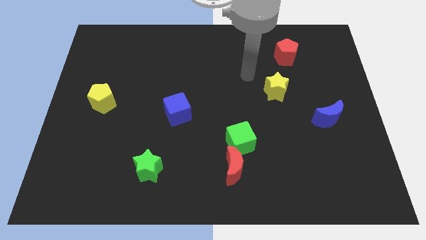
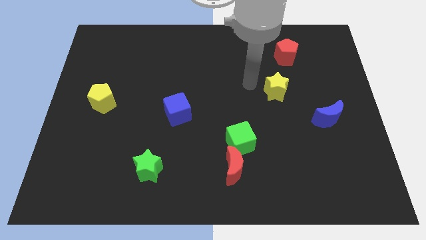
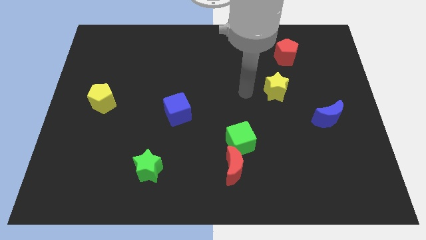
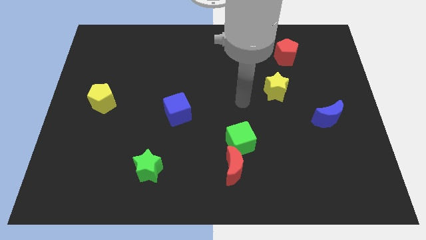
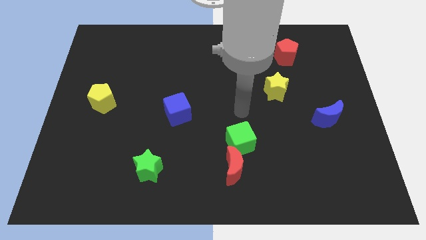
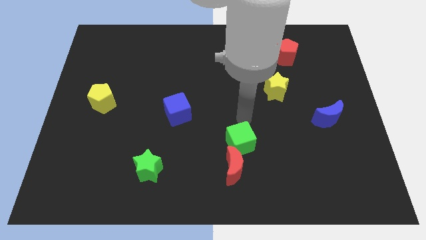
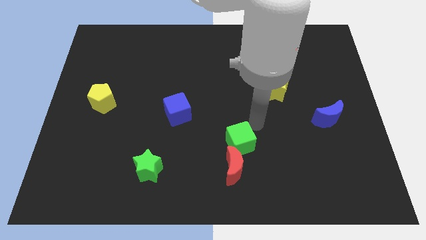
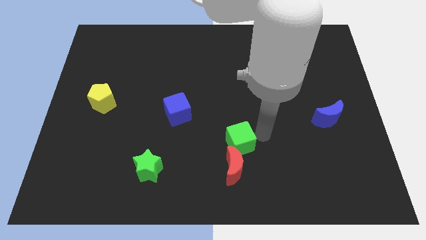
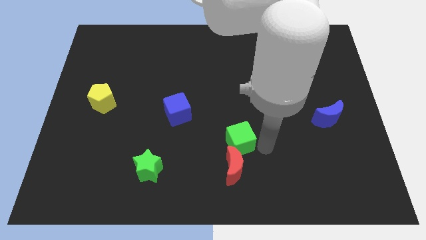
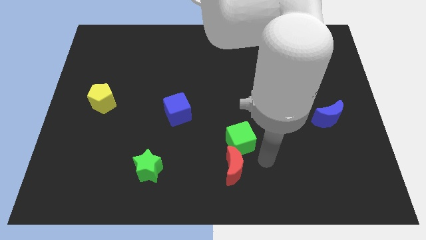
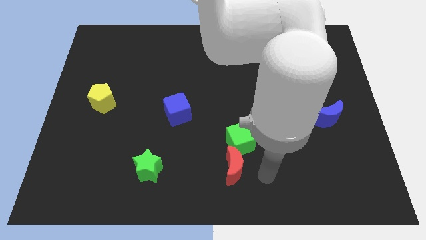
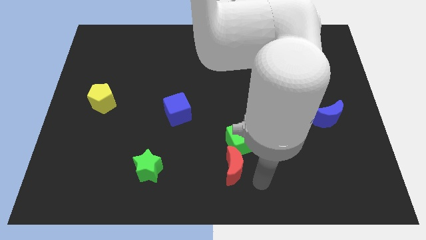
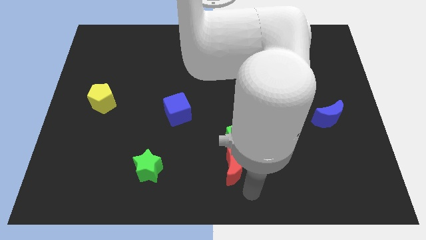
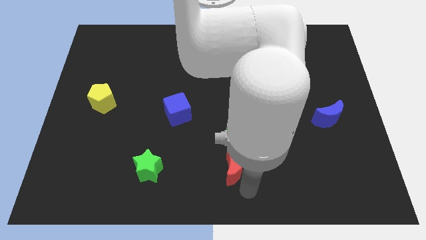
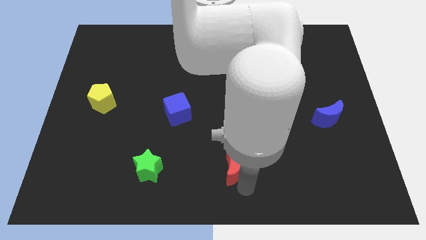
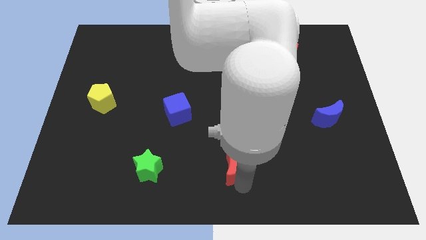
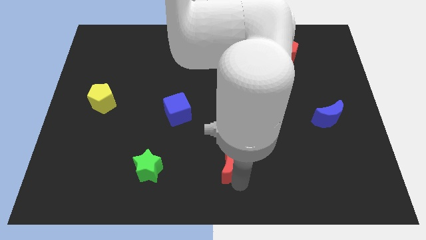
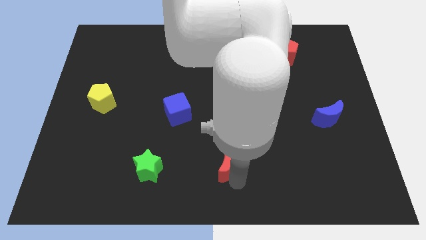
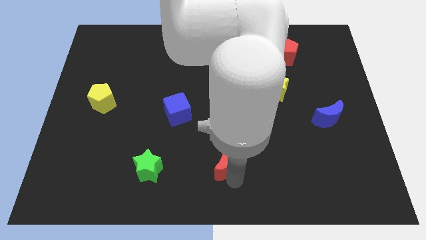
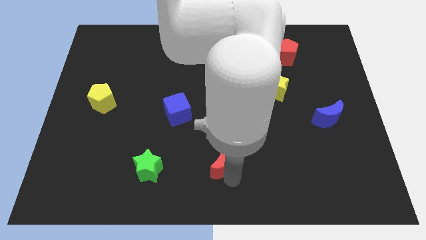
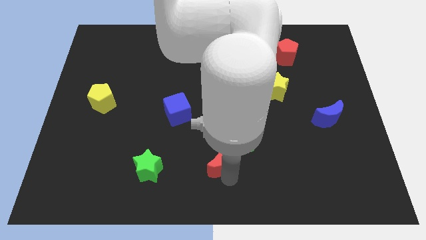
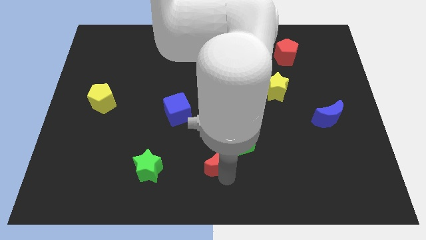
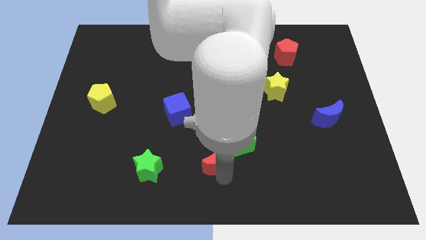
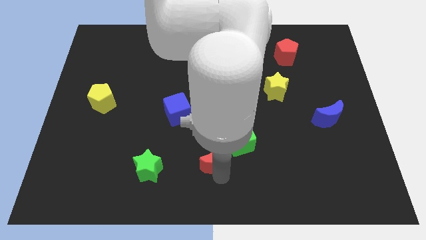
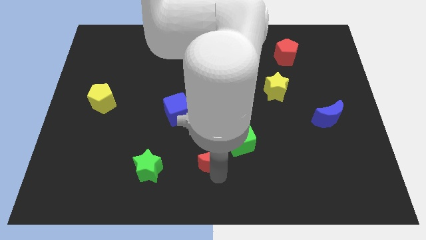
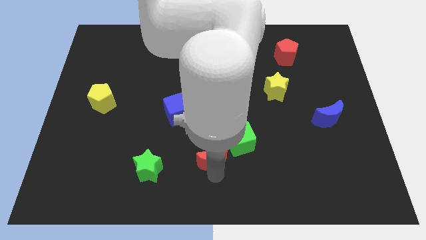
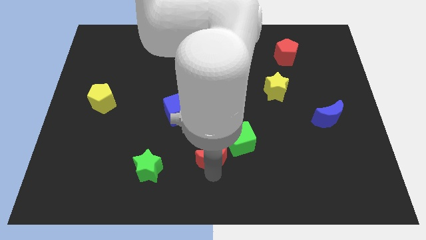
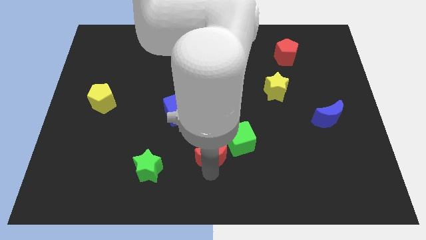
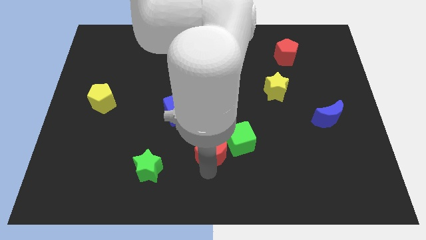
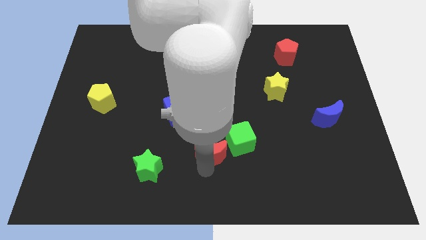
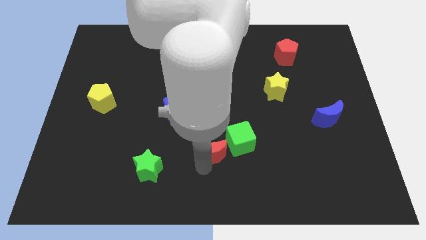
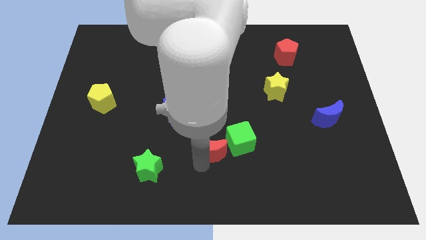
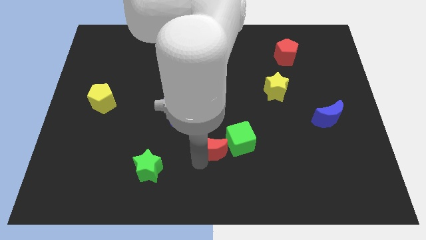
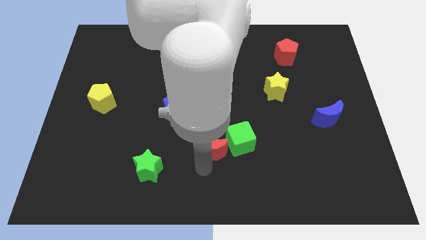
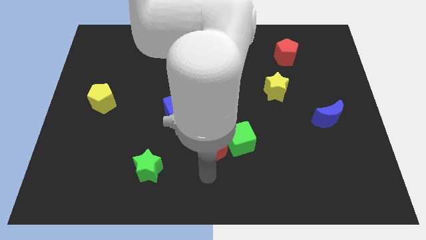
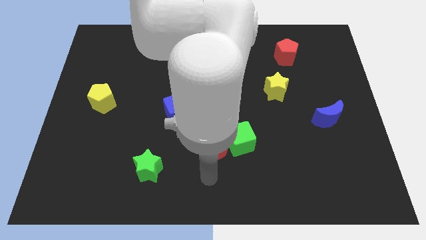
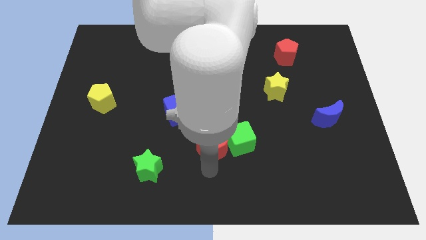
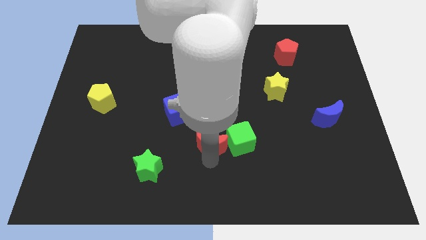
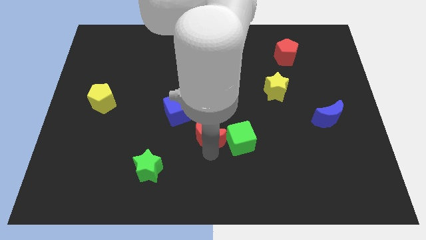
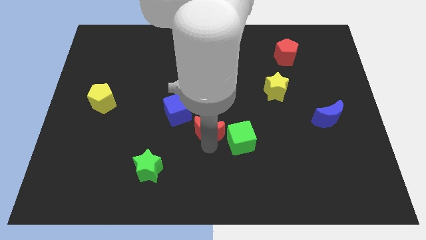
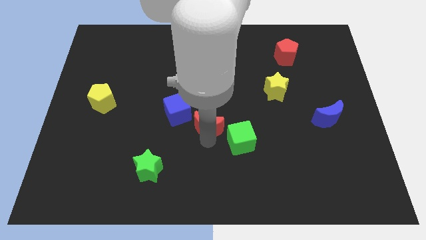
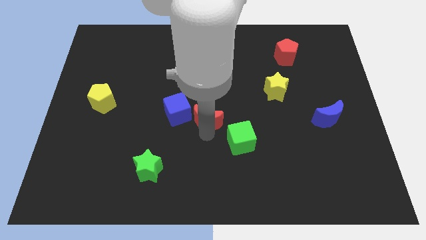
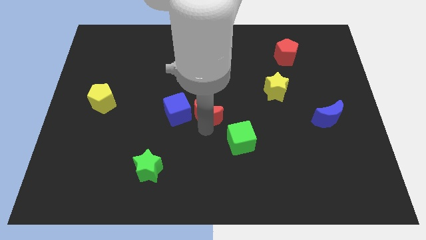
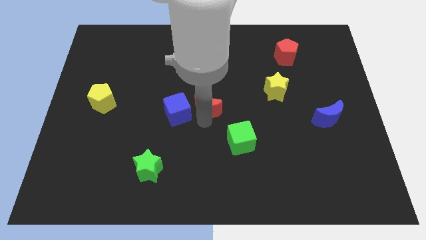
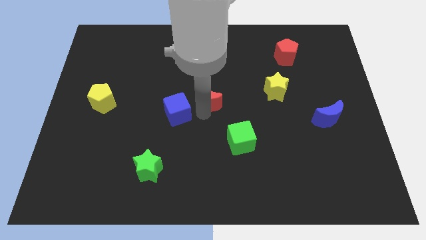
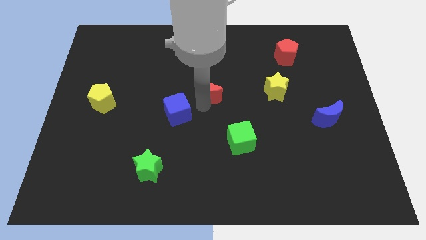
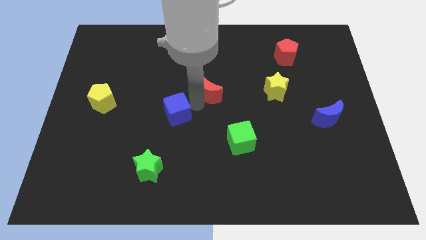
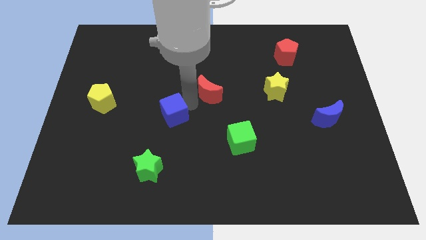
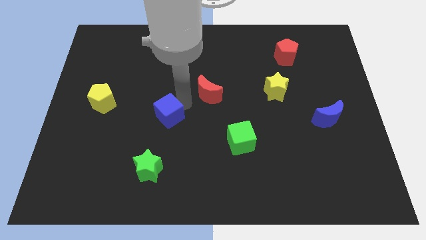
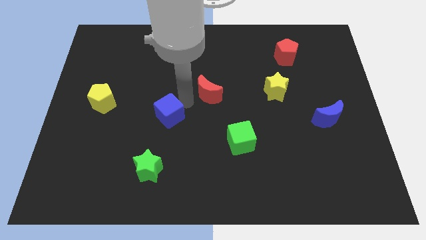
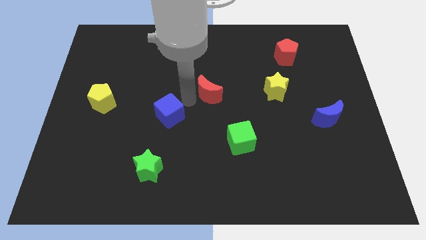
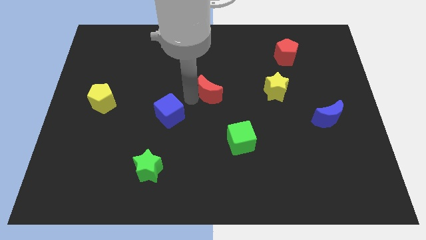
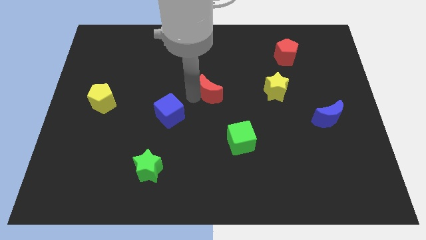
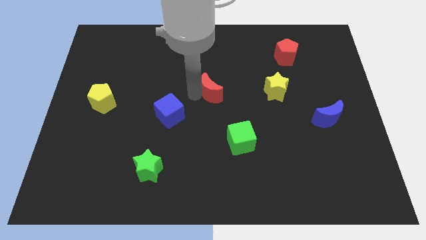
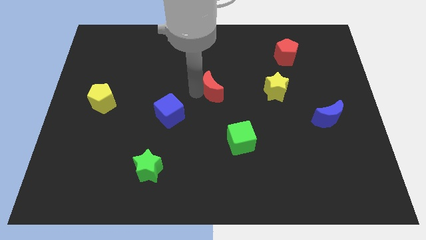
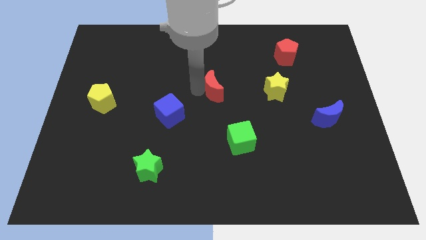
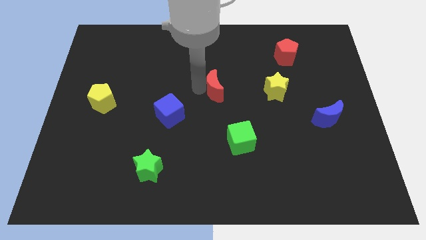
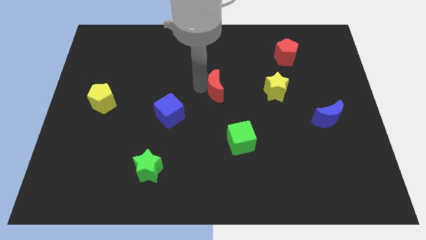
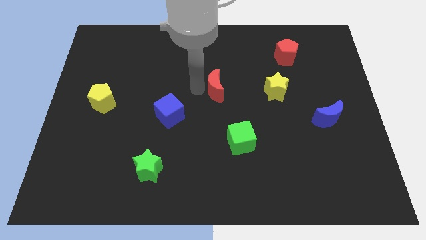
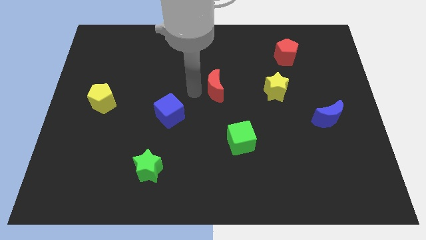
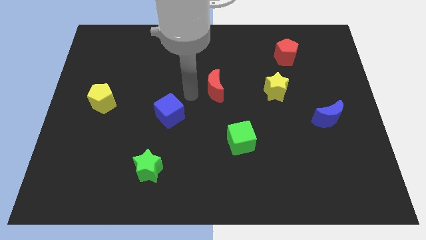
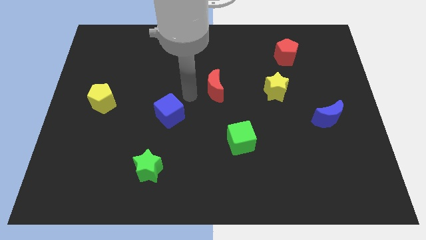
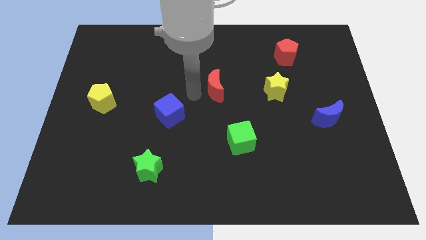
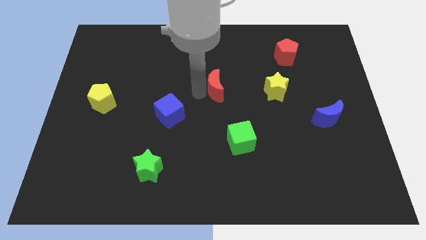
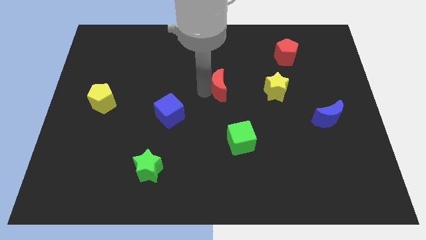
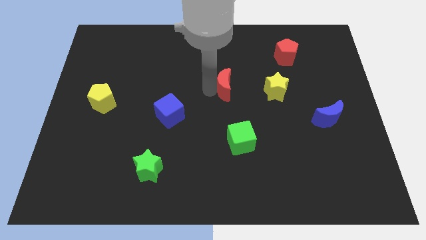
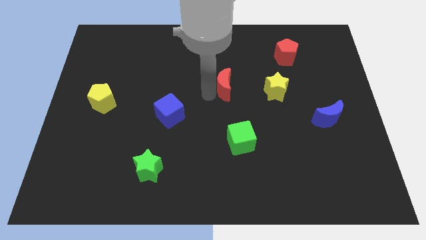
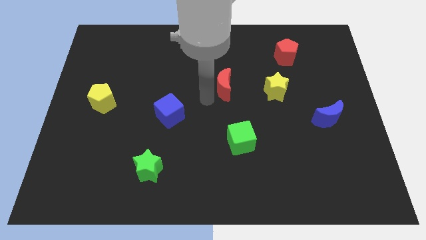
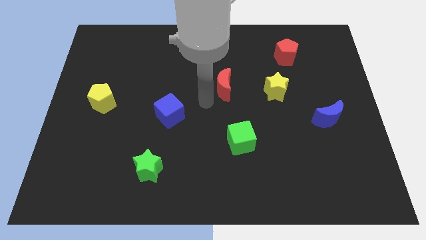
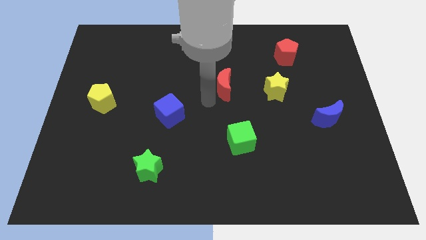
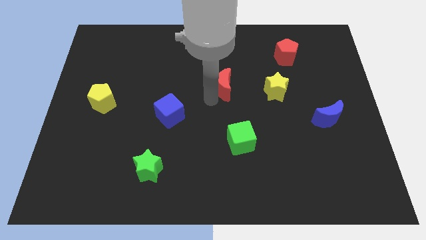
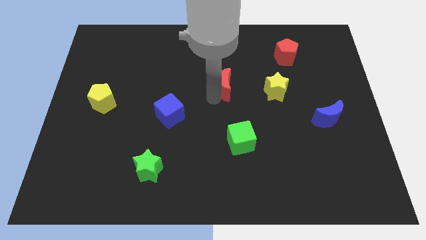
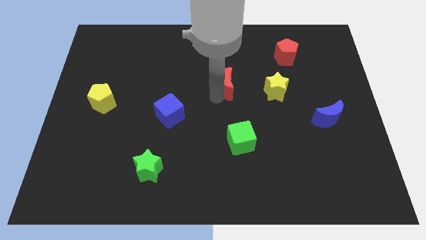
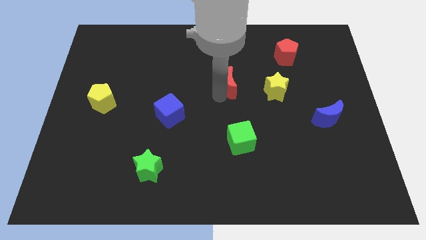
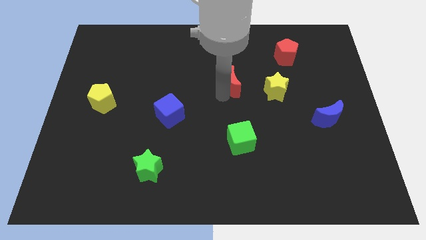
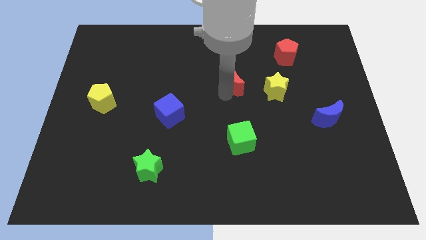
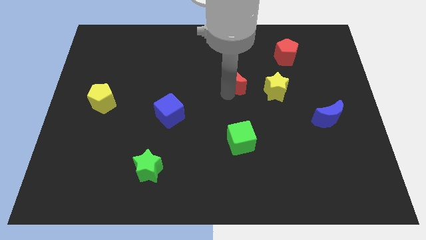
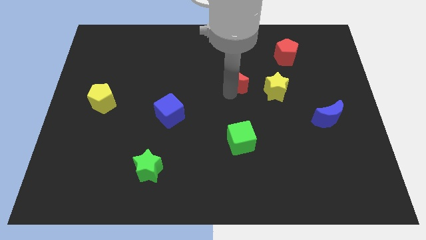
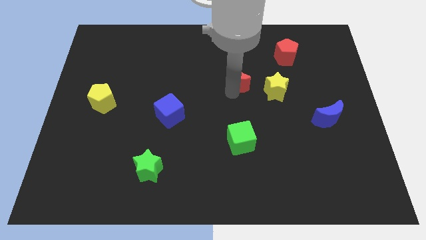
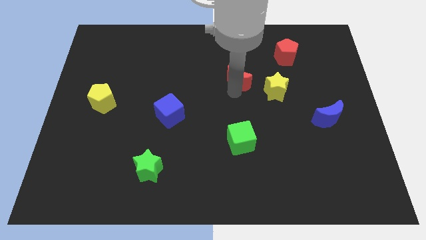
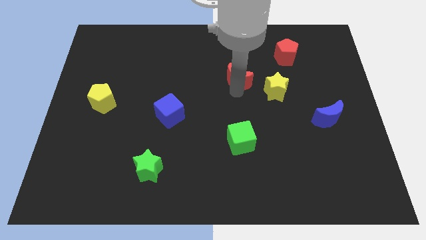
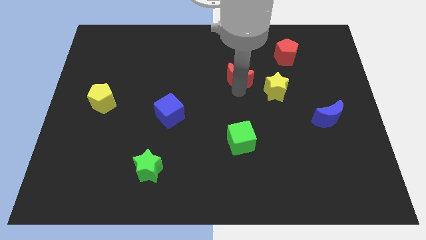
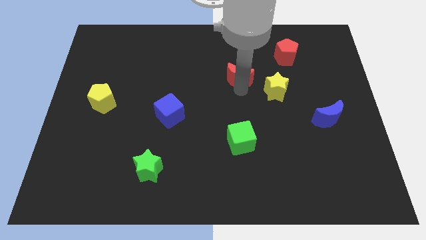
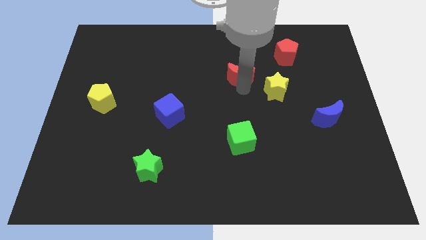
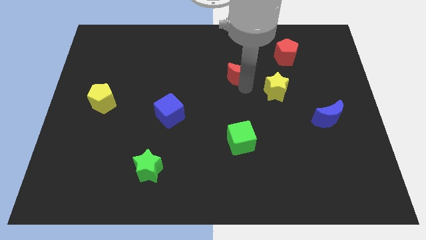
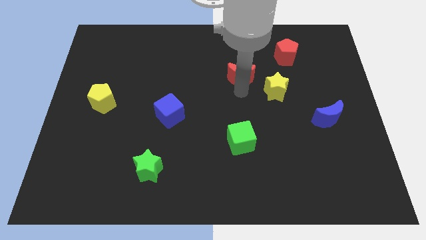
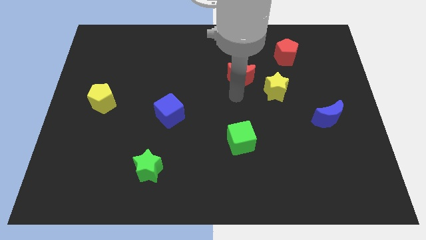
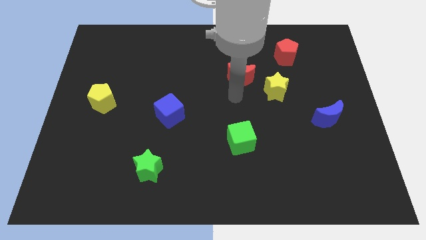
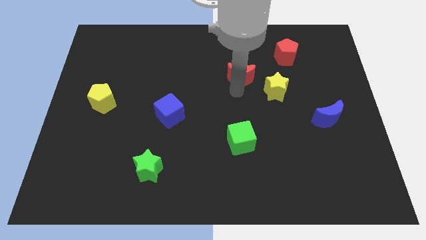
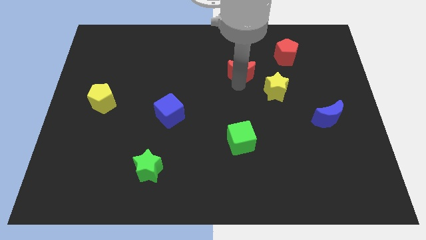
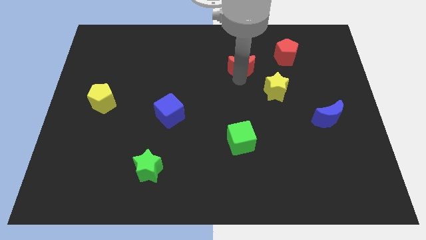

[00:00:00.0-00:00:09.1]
slide the red moon to the left of the red pentagon
